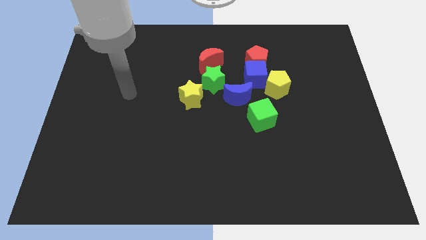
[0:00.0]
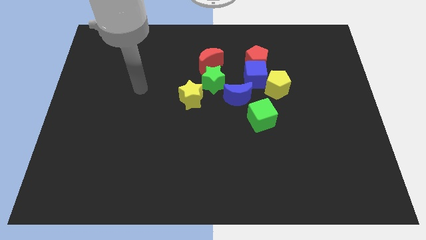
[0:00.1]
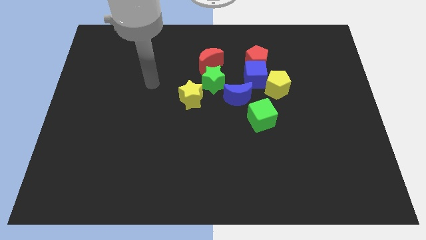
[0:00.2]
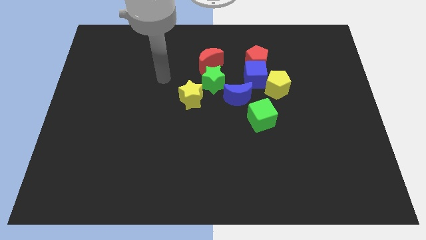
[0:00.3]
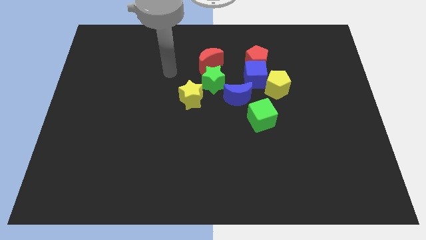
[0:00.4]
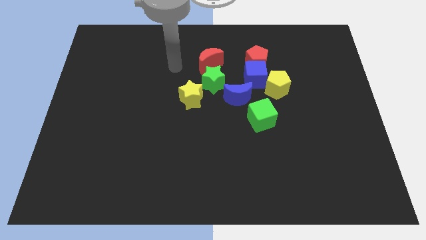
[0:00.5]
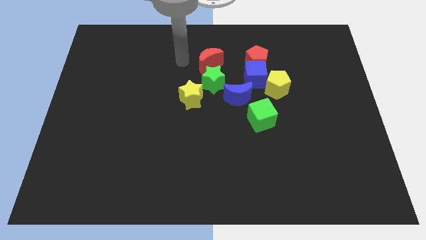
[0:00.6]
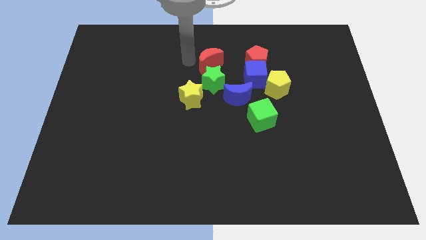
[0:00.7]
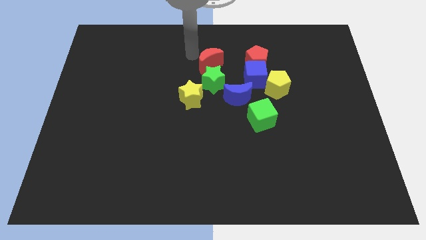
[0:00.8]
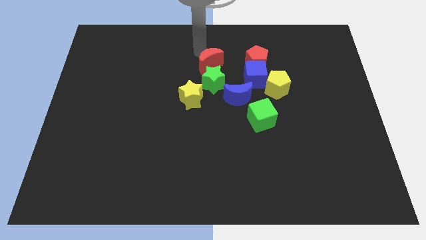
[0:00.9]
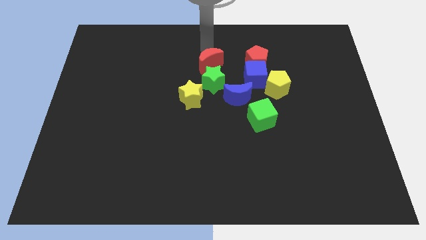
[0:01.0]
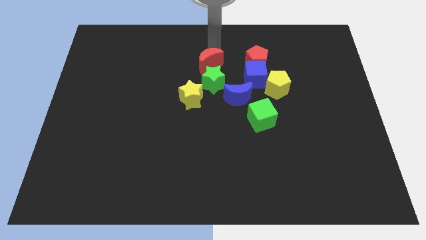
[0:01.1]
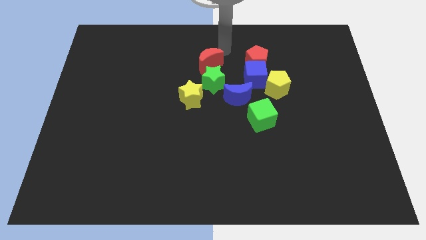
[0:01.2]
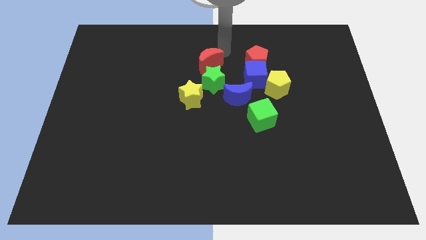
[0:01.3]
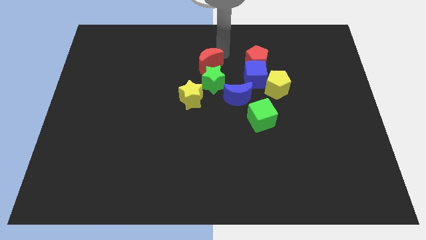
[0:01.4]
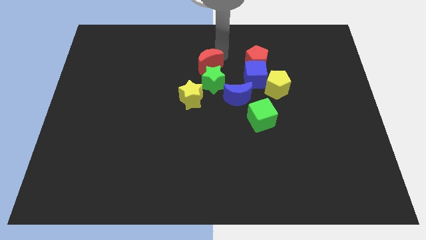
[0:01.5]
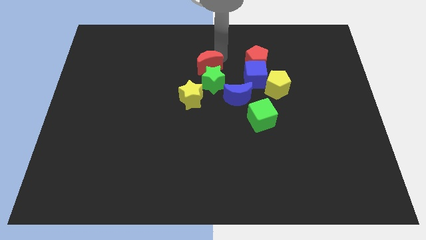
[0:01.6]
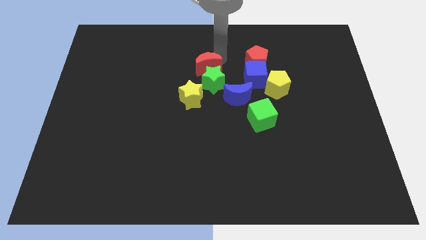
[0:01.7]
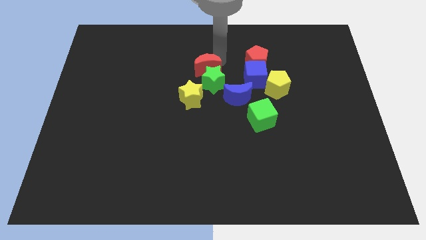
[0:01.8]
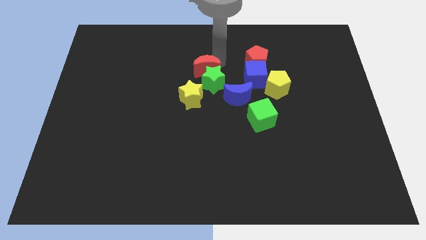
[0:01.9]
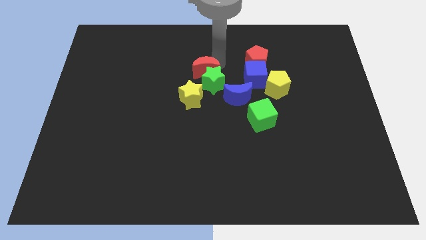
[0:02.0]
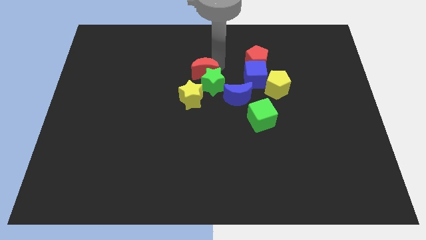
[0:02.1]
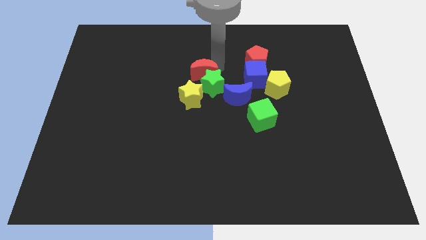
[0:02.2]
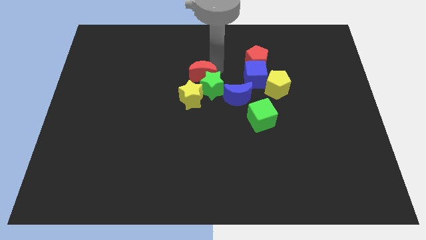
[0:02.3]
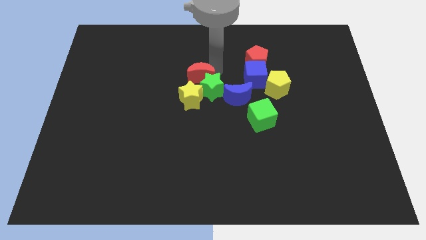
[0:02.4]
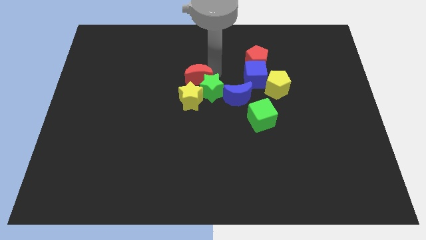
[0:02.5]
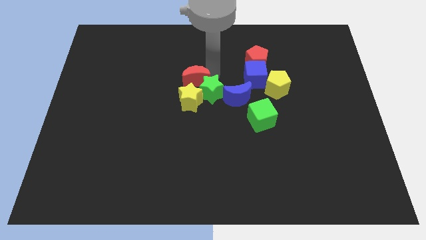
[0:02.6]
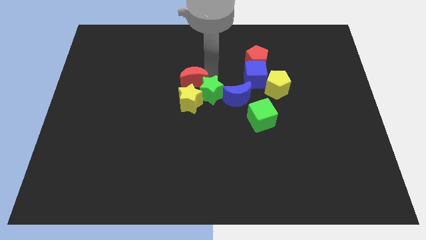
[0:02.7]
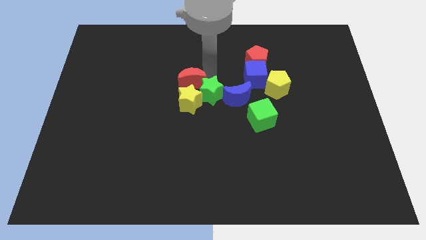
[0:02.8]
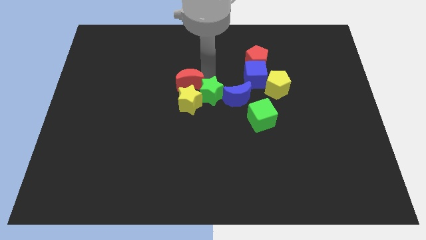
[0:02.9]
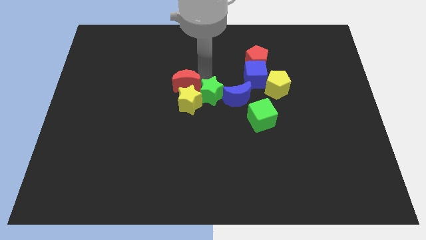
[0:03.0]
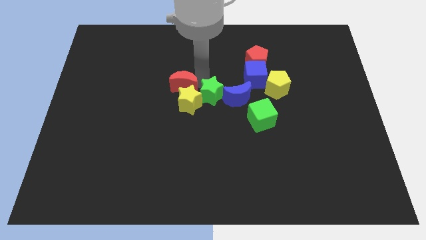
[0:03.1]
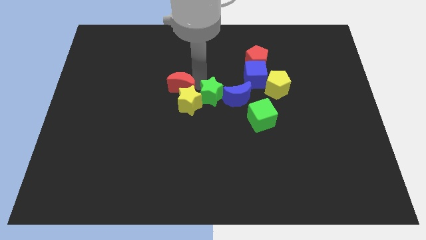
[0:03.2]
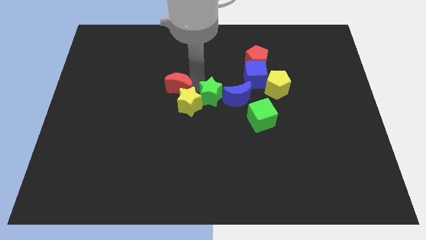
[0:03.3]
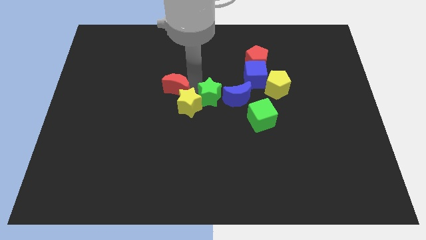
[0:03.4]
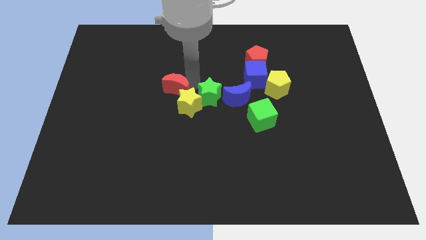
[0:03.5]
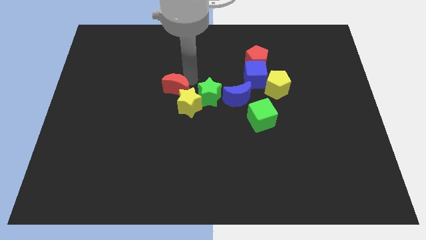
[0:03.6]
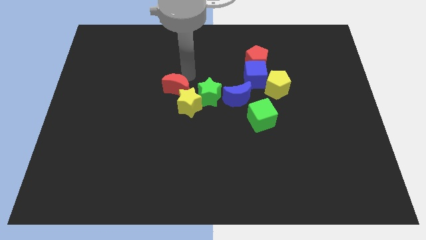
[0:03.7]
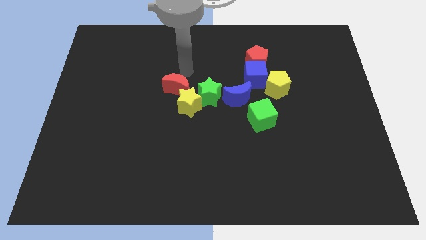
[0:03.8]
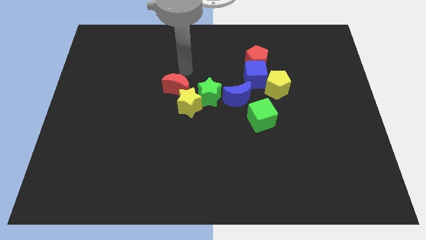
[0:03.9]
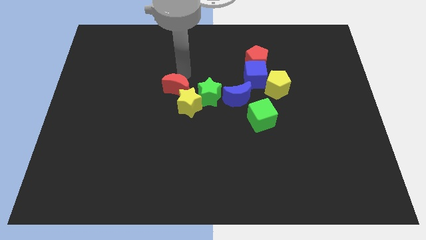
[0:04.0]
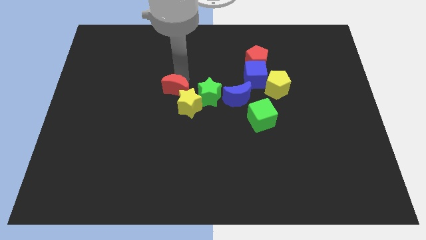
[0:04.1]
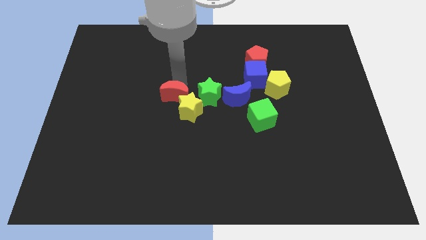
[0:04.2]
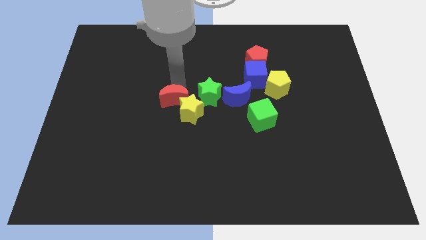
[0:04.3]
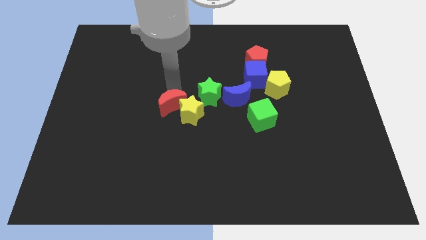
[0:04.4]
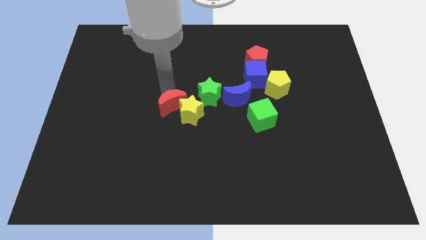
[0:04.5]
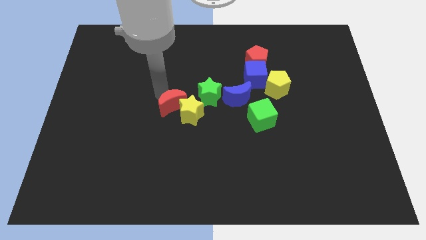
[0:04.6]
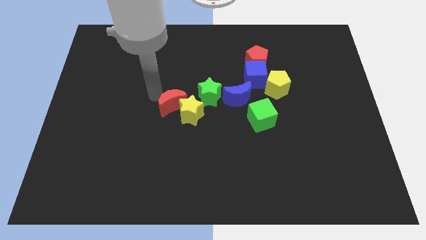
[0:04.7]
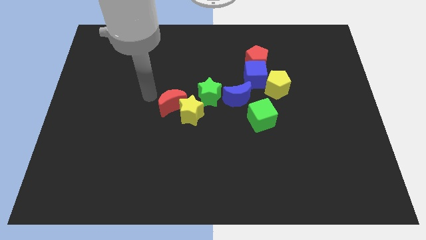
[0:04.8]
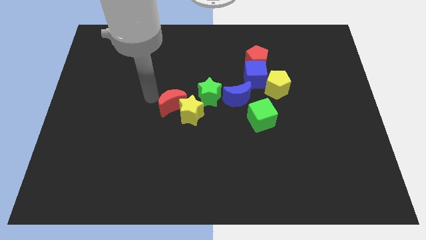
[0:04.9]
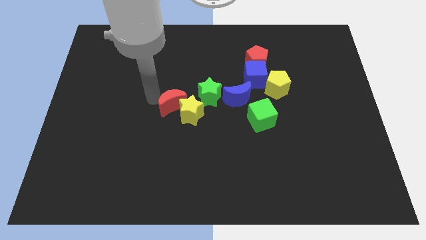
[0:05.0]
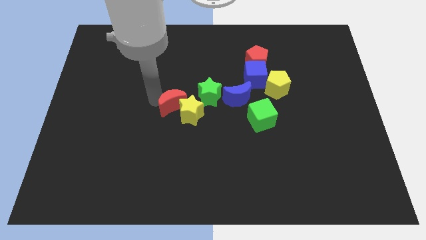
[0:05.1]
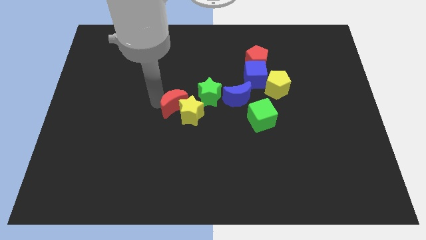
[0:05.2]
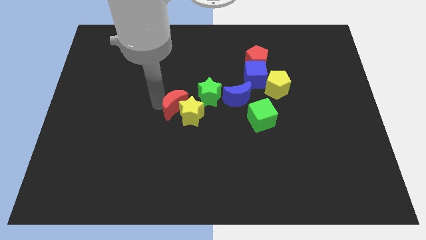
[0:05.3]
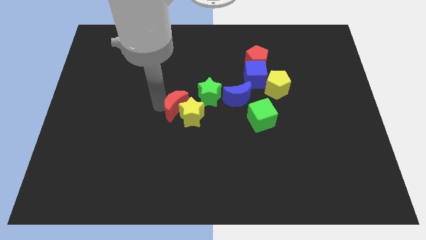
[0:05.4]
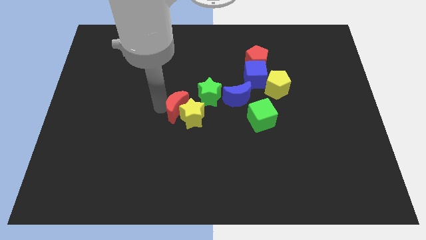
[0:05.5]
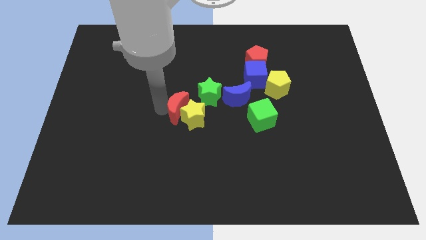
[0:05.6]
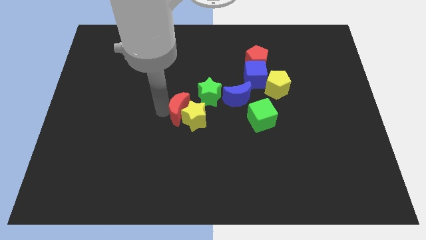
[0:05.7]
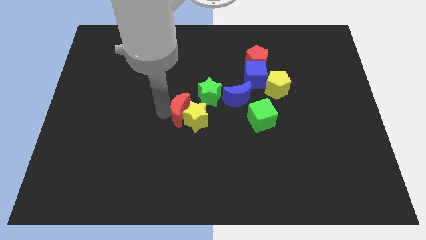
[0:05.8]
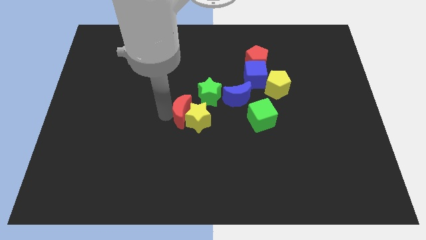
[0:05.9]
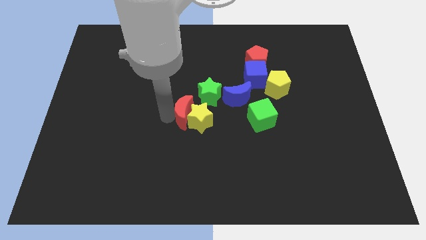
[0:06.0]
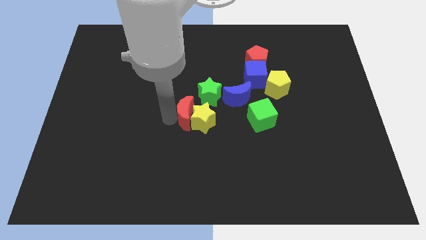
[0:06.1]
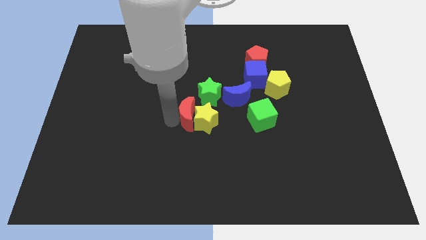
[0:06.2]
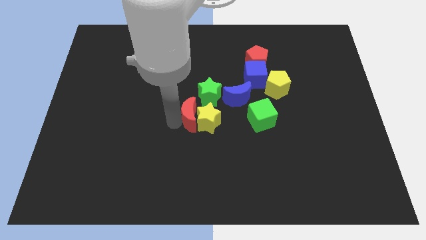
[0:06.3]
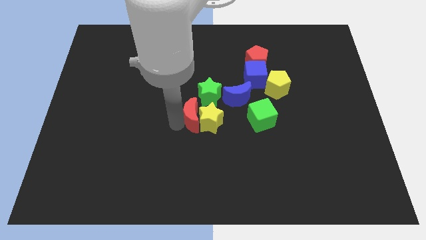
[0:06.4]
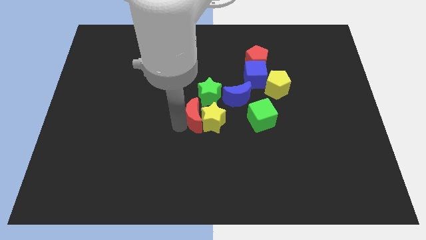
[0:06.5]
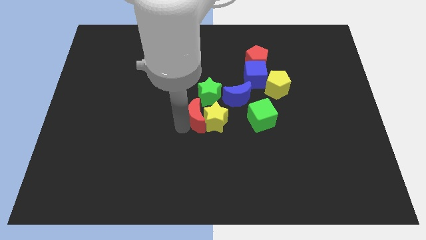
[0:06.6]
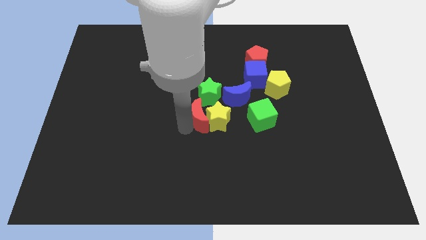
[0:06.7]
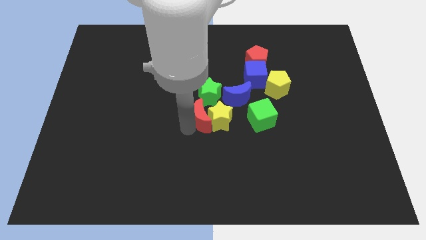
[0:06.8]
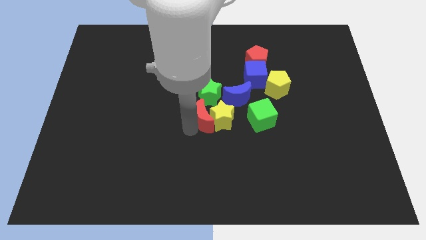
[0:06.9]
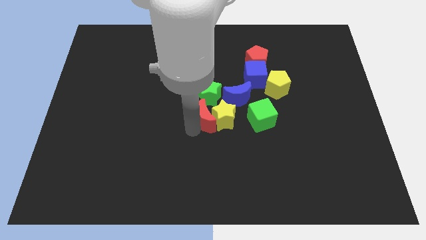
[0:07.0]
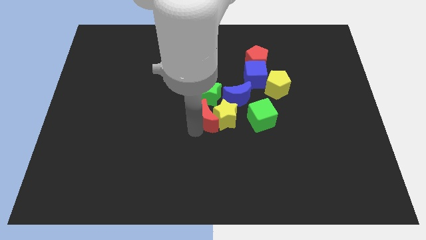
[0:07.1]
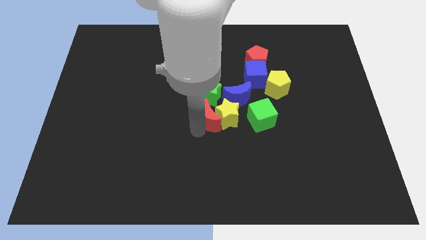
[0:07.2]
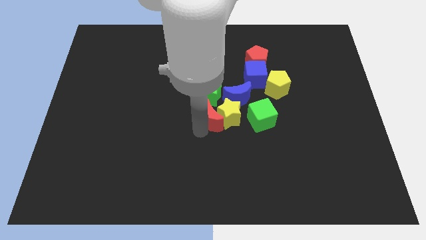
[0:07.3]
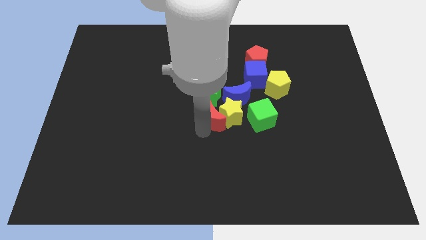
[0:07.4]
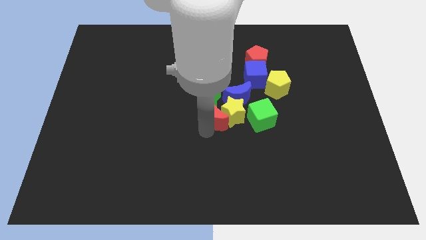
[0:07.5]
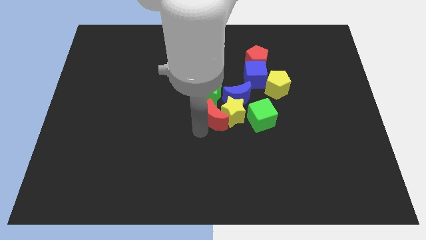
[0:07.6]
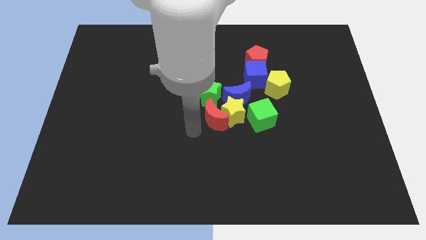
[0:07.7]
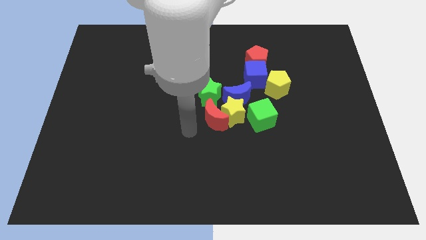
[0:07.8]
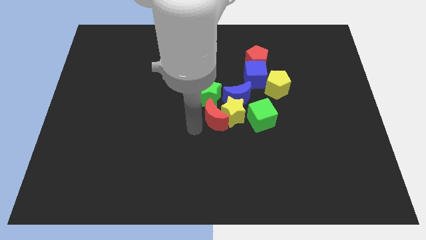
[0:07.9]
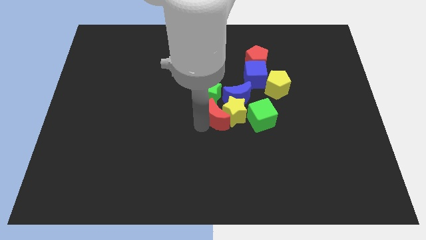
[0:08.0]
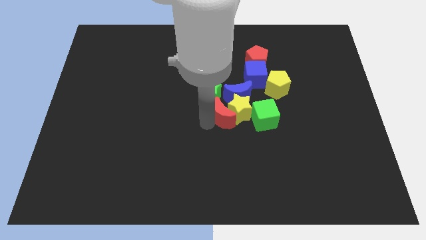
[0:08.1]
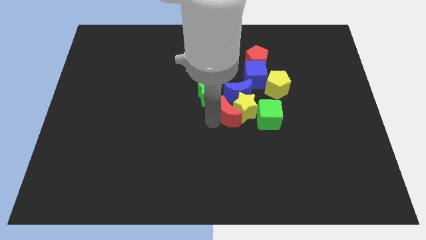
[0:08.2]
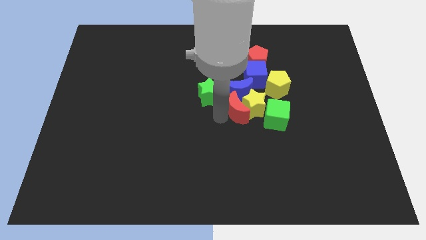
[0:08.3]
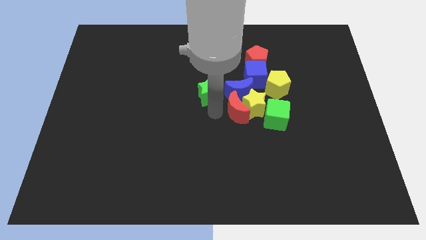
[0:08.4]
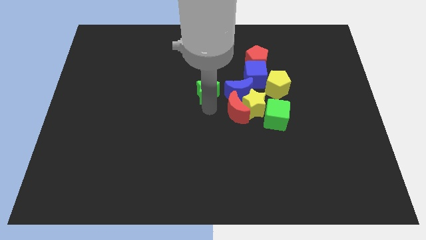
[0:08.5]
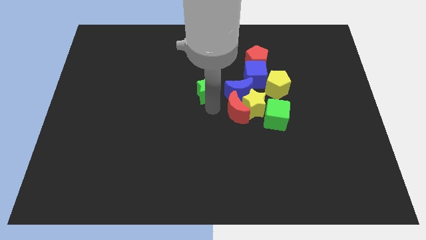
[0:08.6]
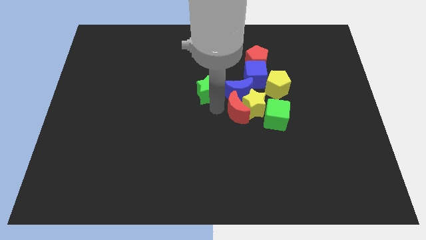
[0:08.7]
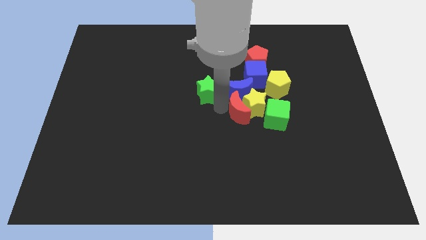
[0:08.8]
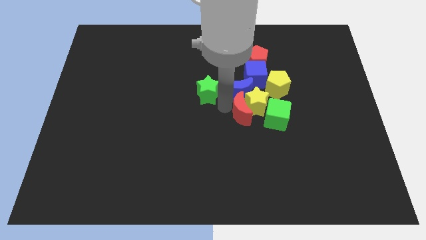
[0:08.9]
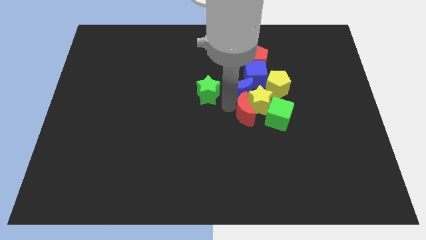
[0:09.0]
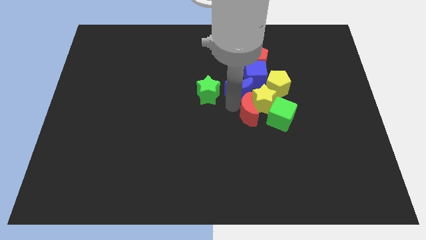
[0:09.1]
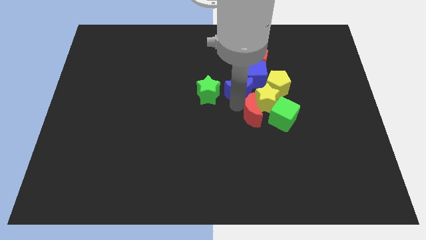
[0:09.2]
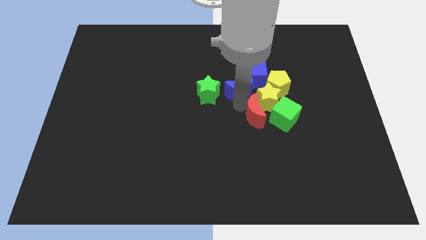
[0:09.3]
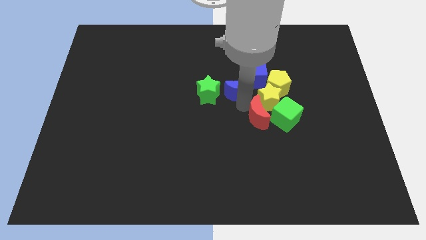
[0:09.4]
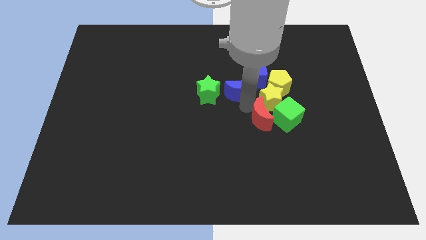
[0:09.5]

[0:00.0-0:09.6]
move the red moon to the green cube
